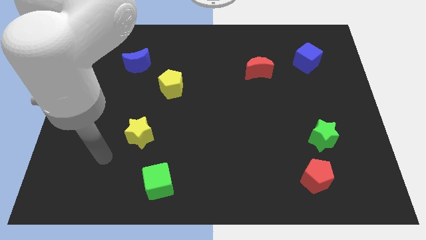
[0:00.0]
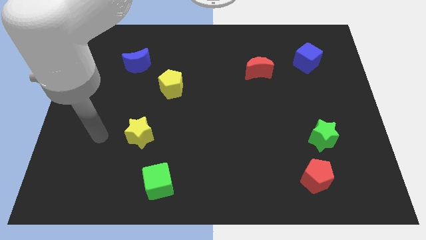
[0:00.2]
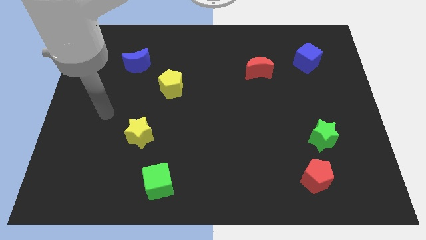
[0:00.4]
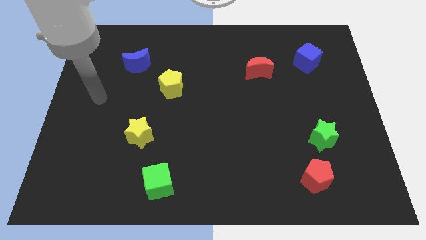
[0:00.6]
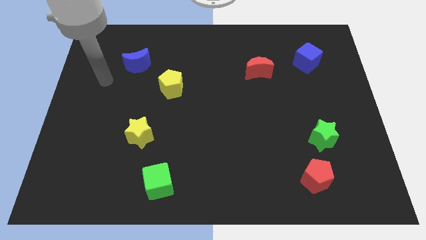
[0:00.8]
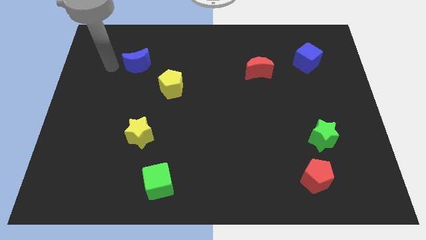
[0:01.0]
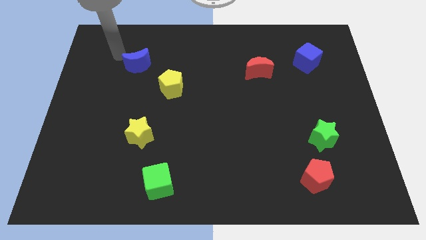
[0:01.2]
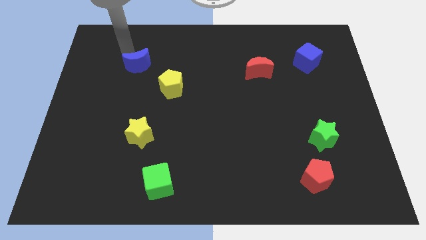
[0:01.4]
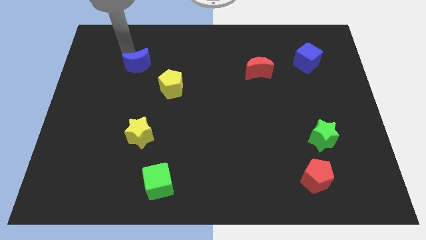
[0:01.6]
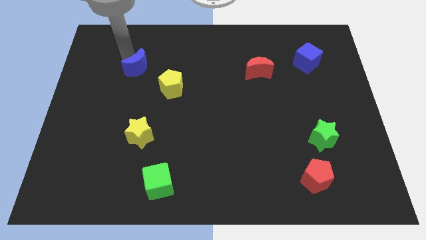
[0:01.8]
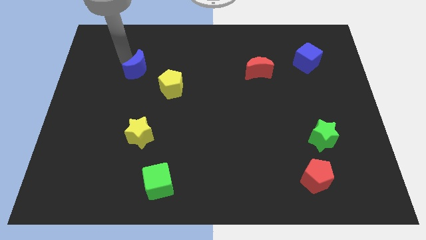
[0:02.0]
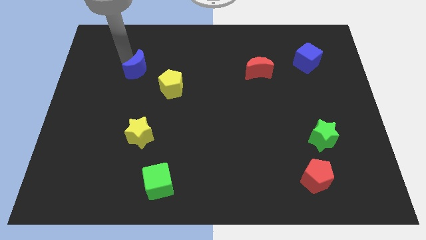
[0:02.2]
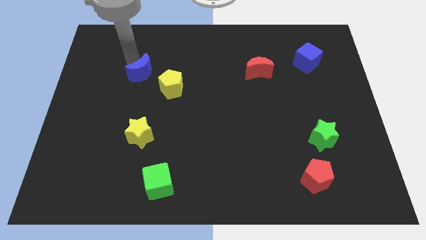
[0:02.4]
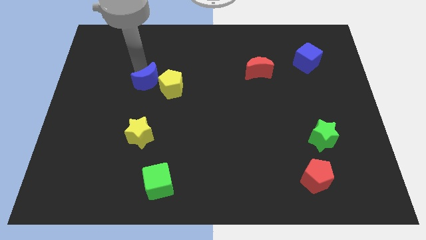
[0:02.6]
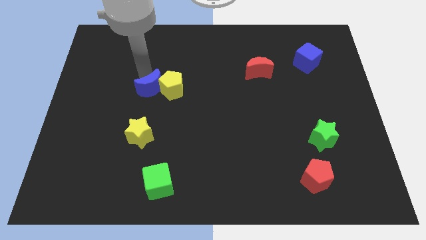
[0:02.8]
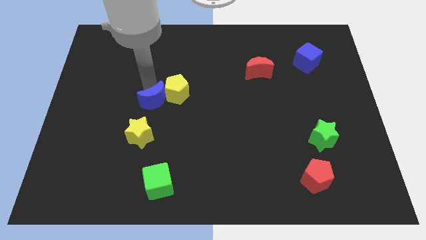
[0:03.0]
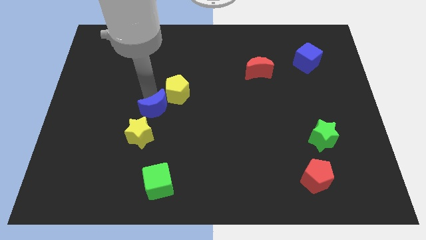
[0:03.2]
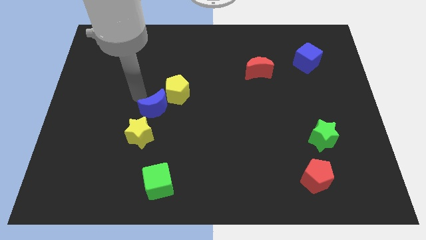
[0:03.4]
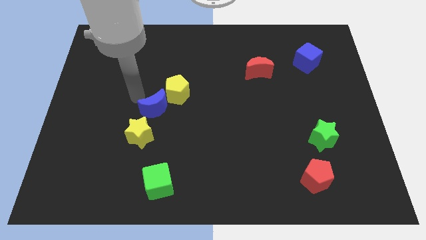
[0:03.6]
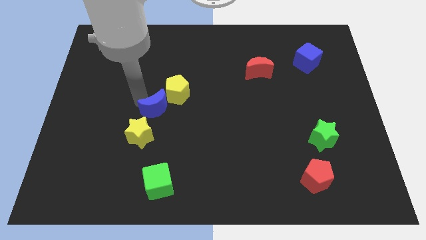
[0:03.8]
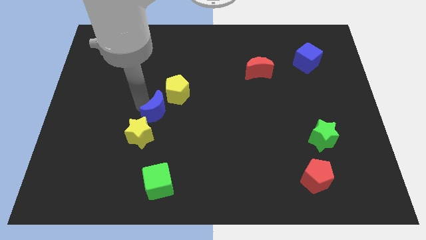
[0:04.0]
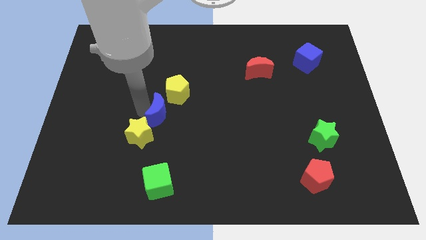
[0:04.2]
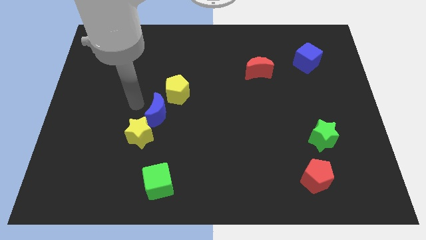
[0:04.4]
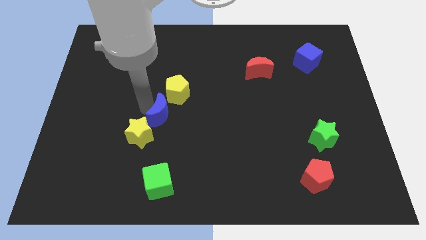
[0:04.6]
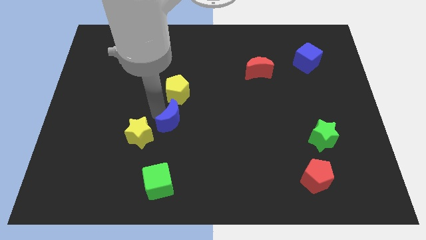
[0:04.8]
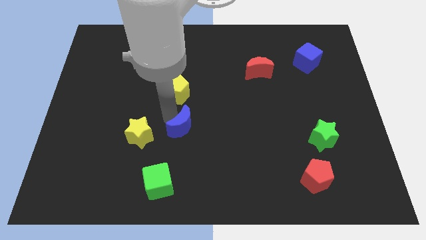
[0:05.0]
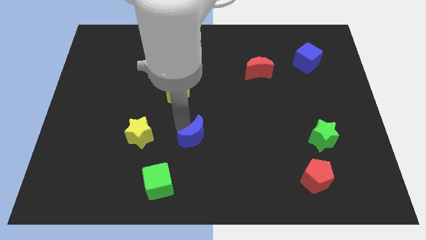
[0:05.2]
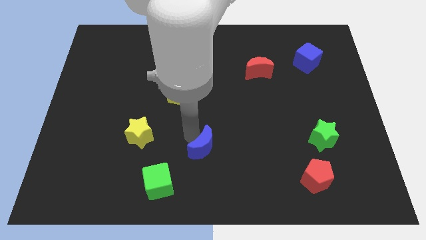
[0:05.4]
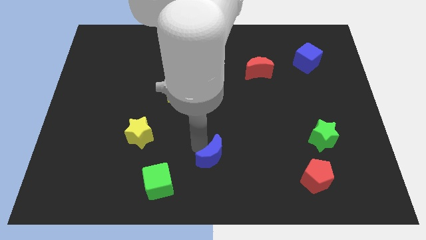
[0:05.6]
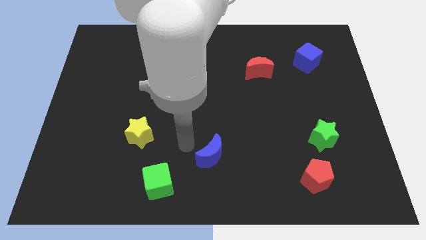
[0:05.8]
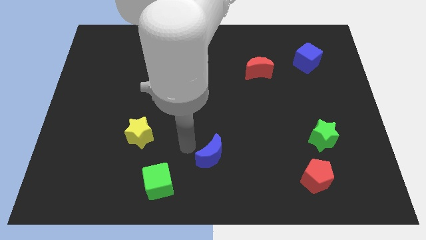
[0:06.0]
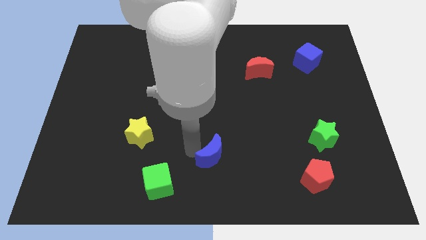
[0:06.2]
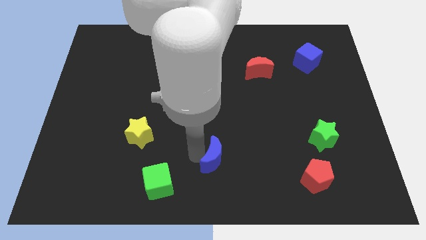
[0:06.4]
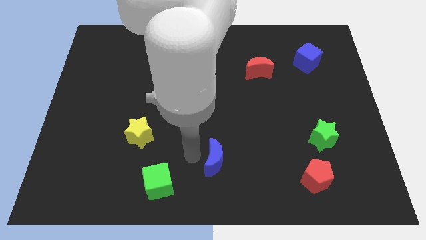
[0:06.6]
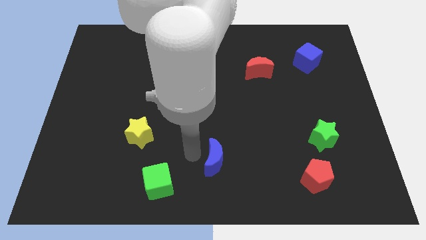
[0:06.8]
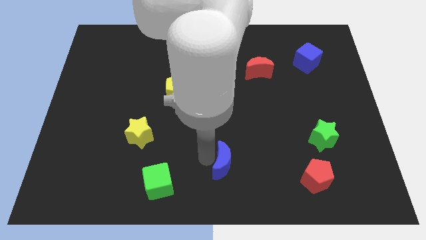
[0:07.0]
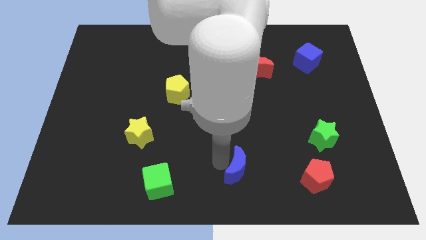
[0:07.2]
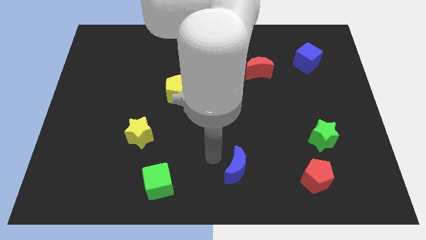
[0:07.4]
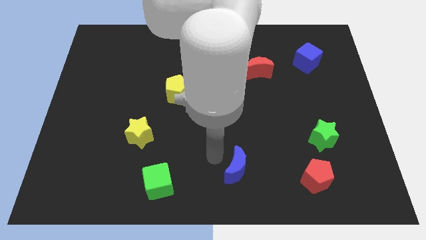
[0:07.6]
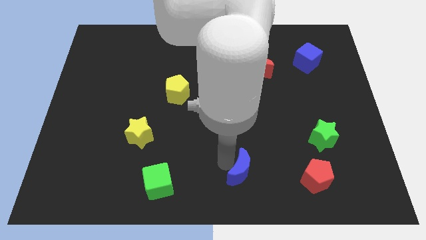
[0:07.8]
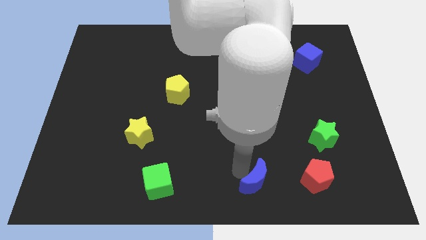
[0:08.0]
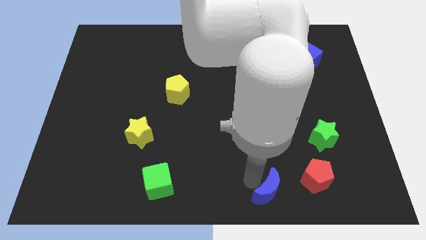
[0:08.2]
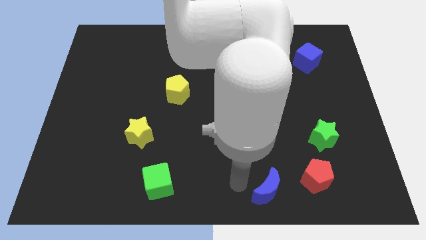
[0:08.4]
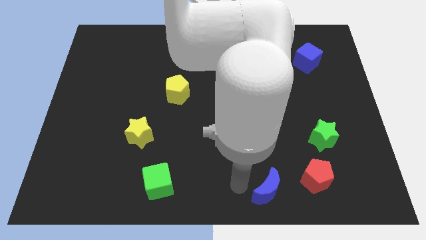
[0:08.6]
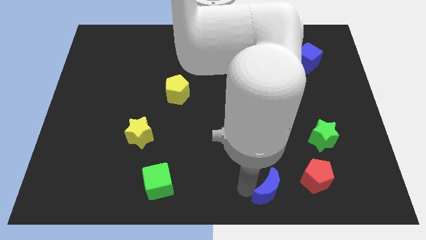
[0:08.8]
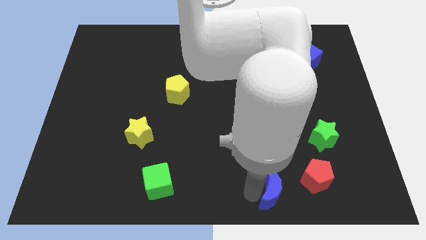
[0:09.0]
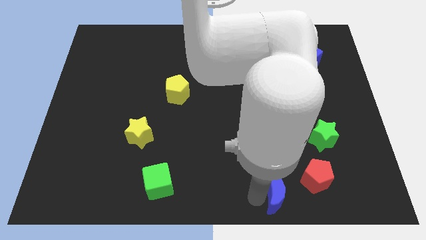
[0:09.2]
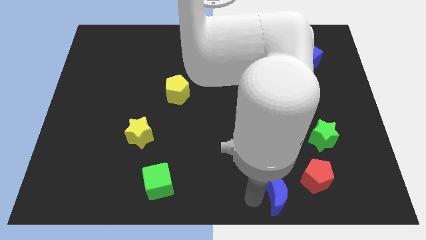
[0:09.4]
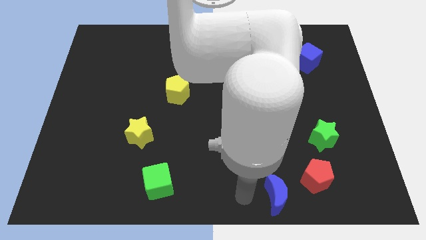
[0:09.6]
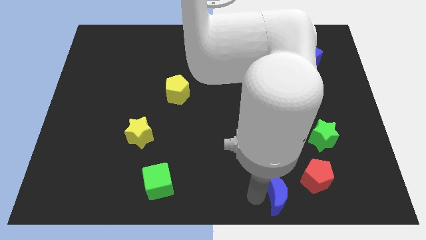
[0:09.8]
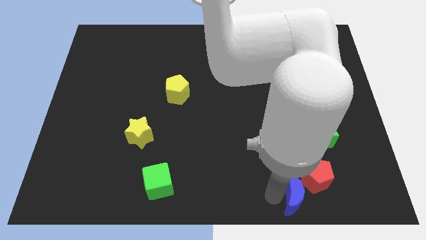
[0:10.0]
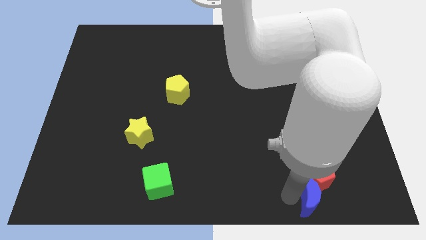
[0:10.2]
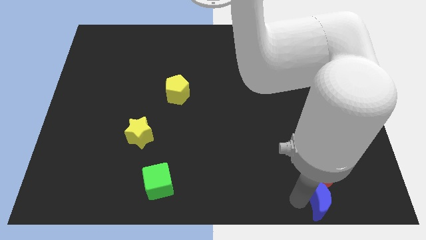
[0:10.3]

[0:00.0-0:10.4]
slide the blue moon to the bottom of the green star

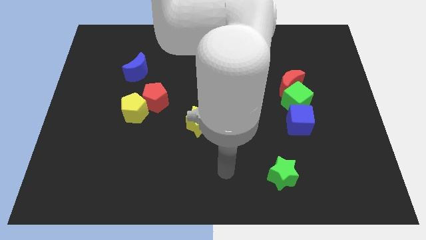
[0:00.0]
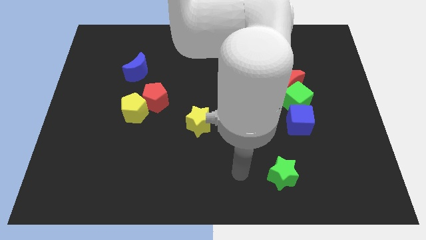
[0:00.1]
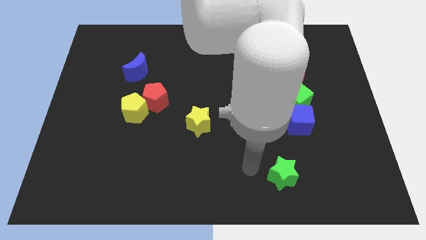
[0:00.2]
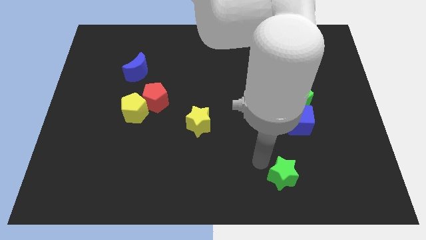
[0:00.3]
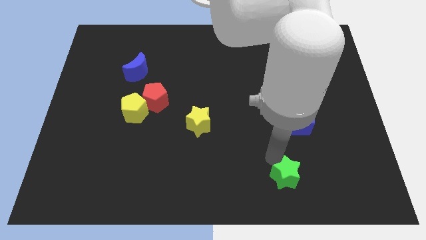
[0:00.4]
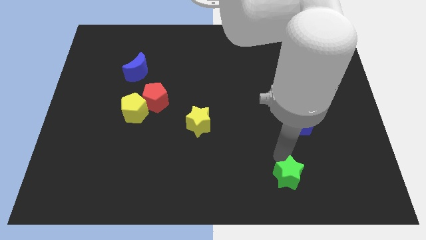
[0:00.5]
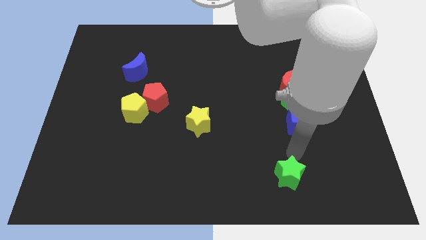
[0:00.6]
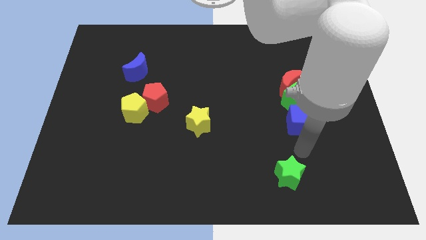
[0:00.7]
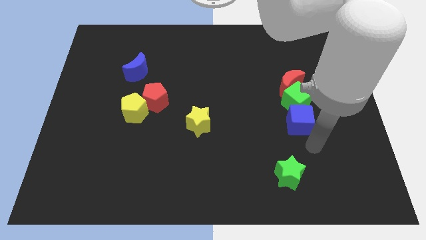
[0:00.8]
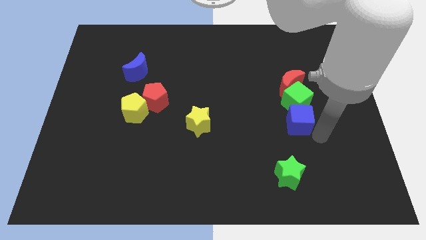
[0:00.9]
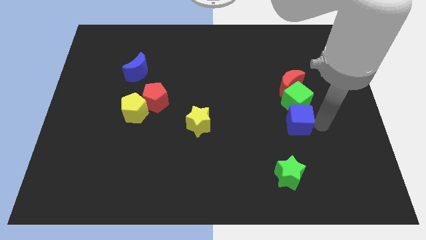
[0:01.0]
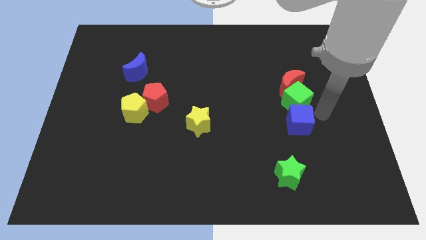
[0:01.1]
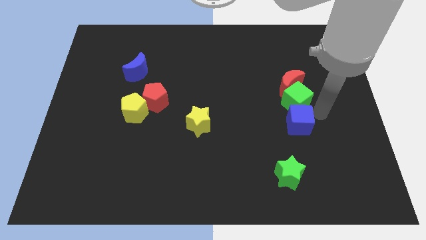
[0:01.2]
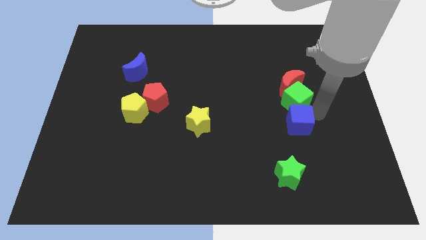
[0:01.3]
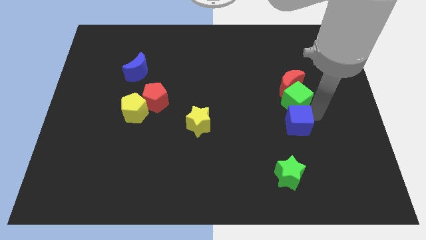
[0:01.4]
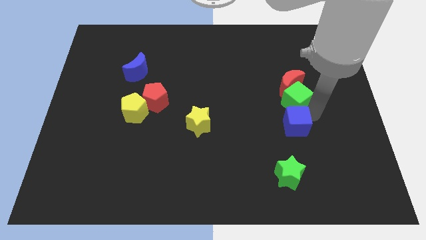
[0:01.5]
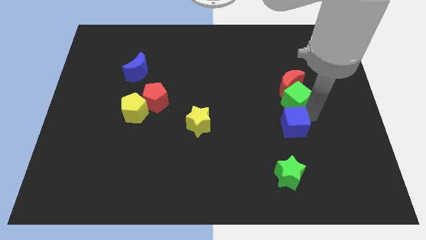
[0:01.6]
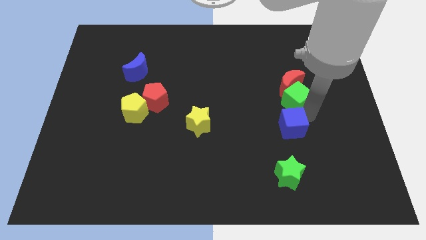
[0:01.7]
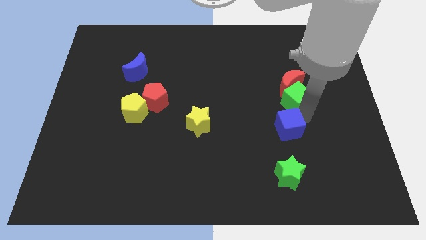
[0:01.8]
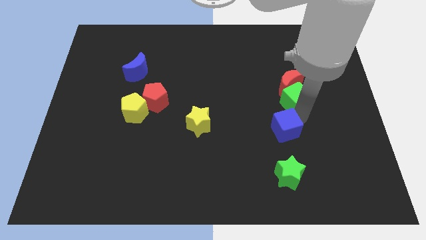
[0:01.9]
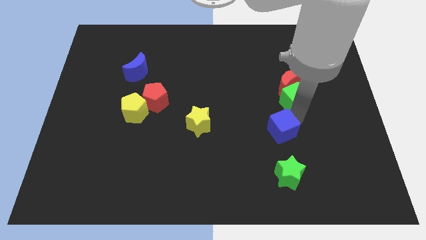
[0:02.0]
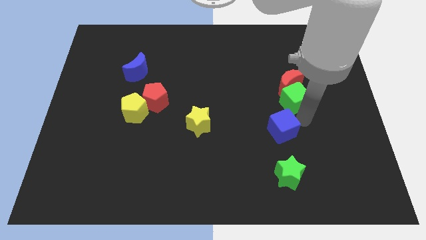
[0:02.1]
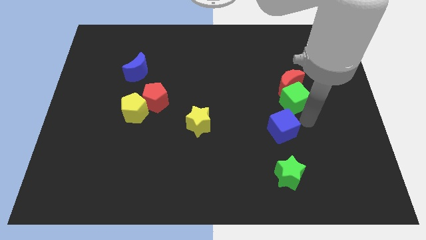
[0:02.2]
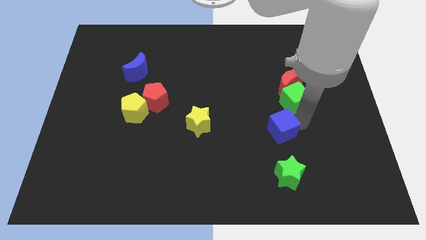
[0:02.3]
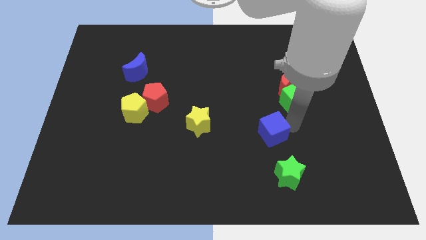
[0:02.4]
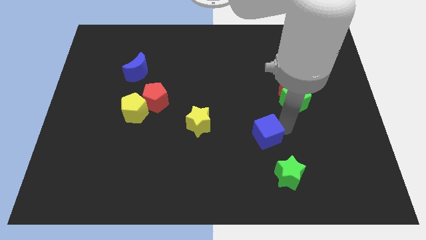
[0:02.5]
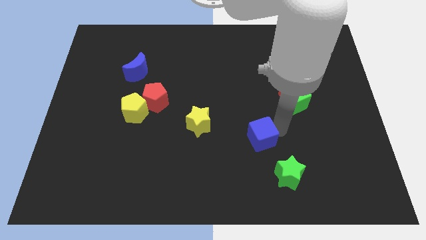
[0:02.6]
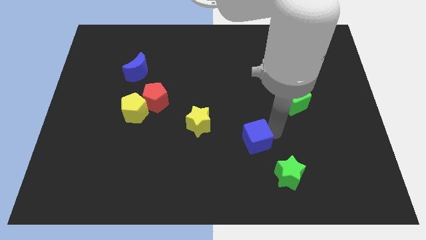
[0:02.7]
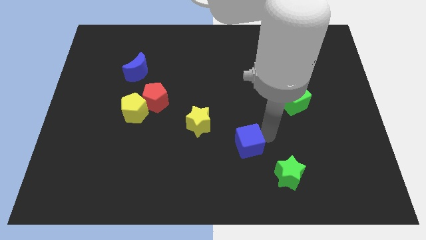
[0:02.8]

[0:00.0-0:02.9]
put the blue cube to the bottom right side of the yellow star
